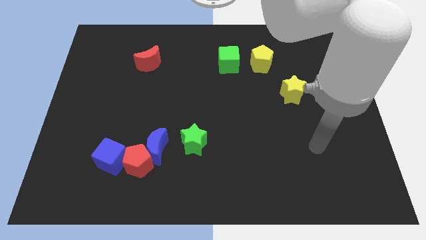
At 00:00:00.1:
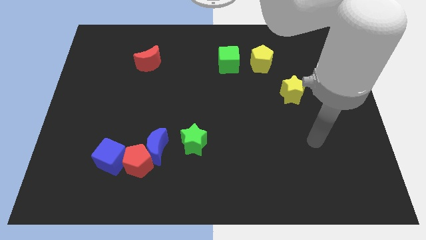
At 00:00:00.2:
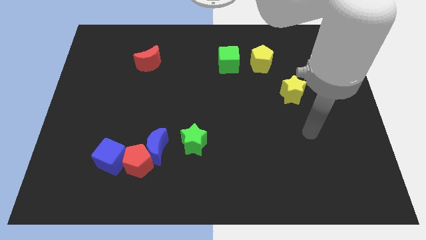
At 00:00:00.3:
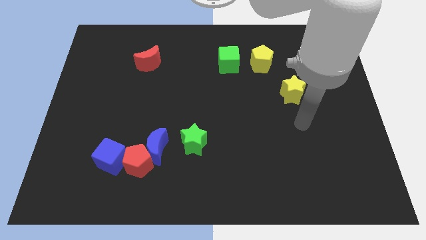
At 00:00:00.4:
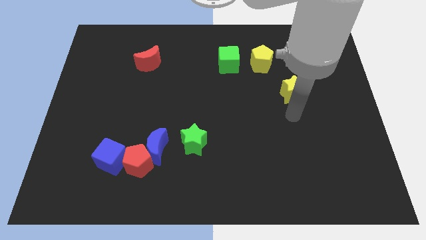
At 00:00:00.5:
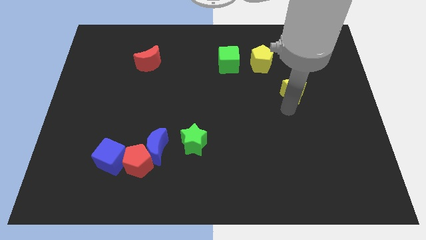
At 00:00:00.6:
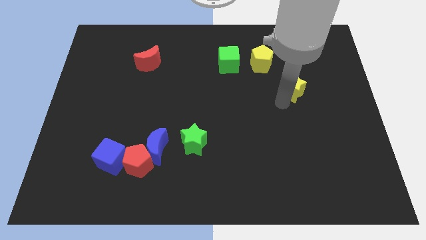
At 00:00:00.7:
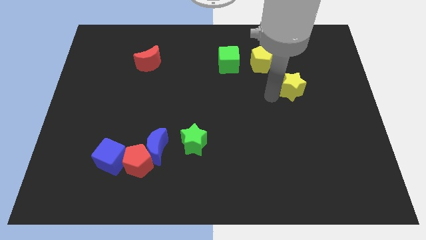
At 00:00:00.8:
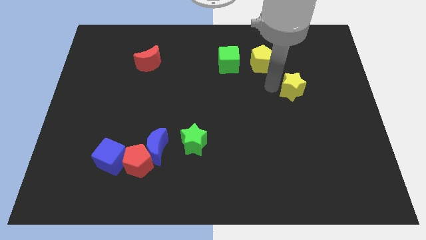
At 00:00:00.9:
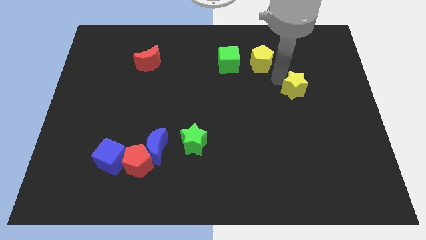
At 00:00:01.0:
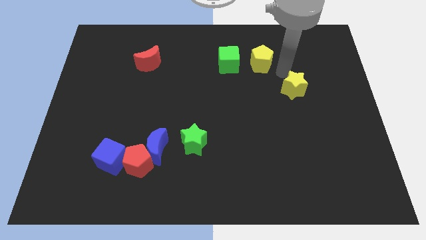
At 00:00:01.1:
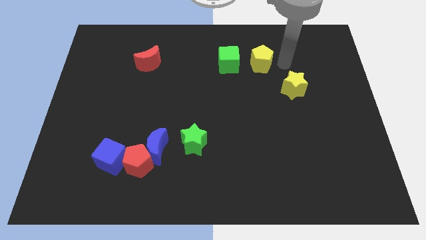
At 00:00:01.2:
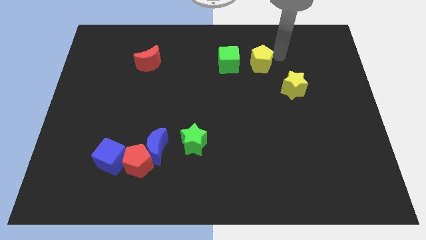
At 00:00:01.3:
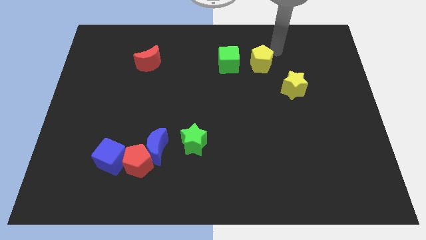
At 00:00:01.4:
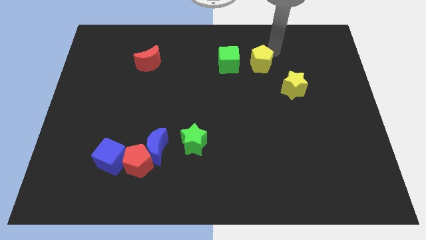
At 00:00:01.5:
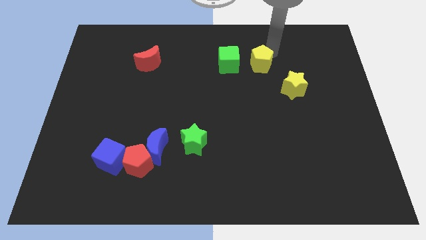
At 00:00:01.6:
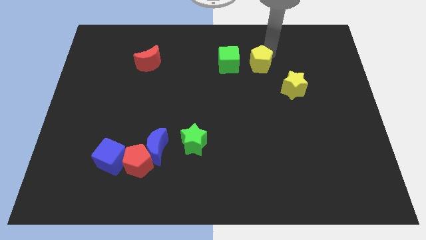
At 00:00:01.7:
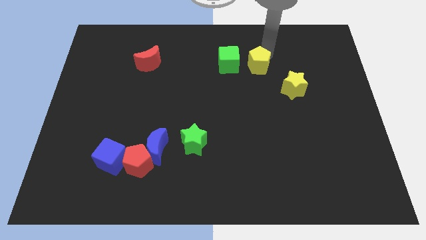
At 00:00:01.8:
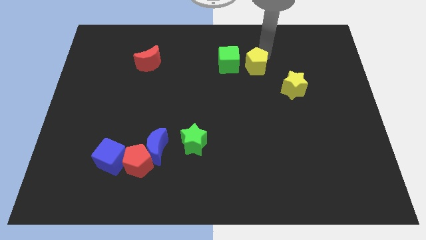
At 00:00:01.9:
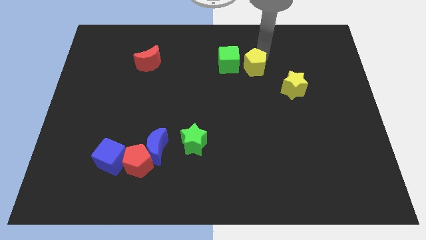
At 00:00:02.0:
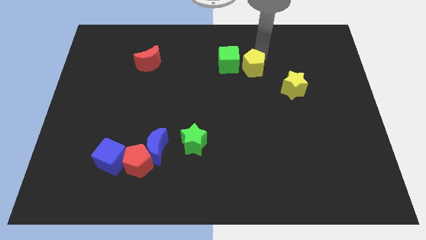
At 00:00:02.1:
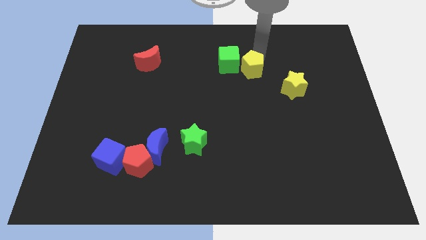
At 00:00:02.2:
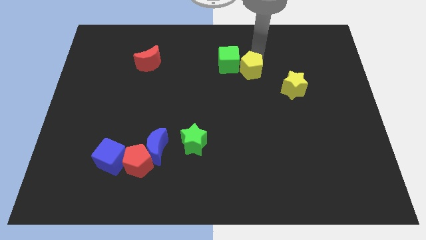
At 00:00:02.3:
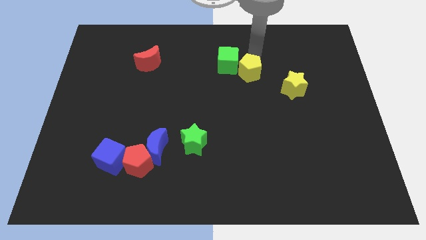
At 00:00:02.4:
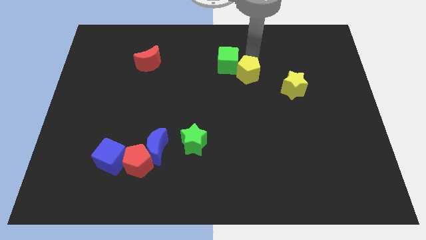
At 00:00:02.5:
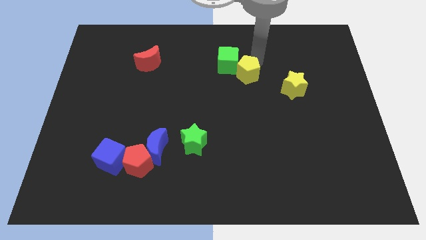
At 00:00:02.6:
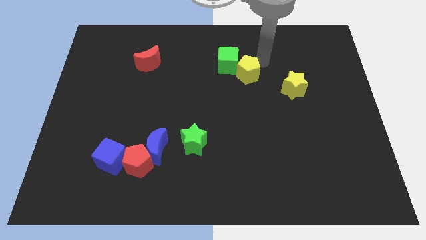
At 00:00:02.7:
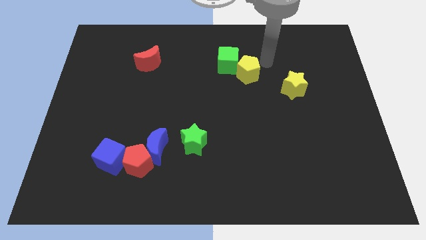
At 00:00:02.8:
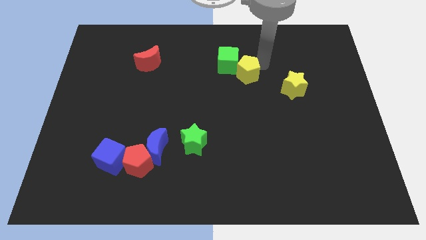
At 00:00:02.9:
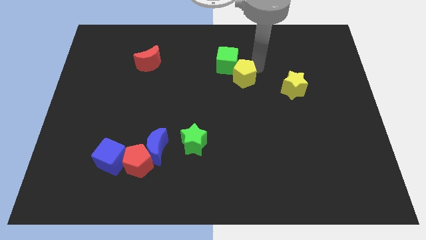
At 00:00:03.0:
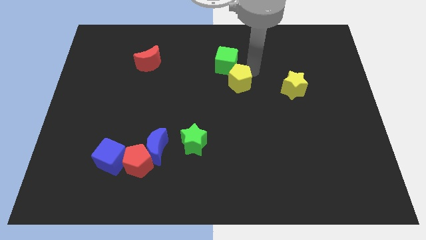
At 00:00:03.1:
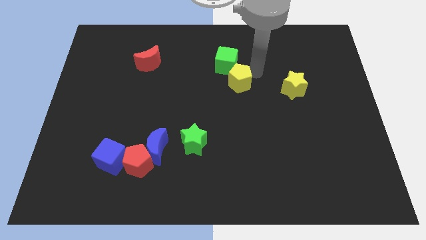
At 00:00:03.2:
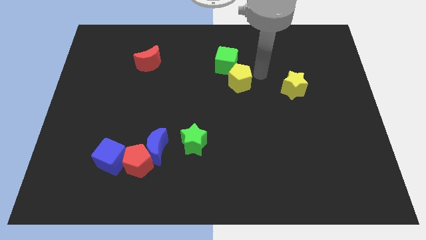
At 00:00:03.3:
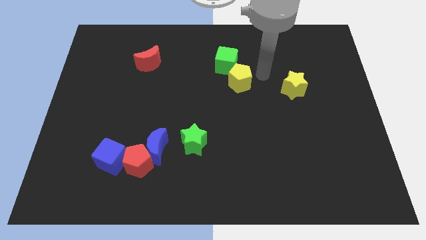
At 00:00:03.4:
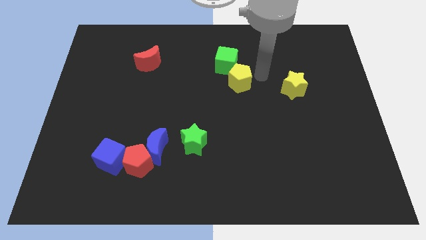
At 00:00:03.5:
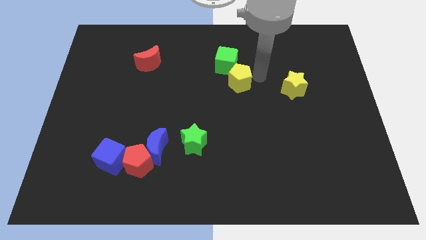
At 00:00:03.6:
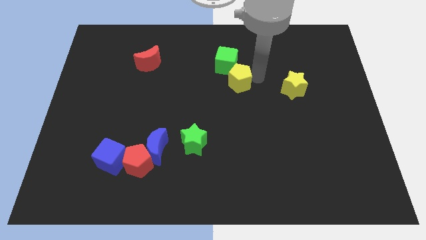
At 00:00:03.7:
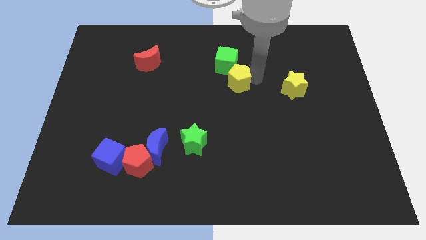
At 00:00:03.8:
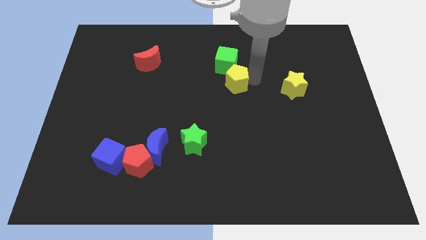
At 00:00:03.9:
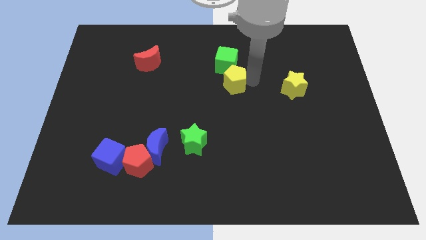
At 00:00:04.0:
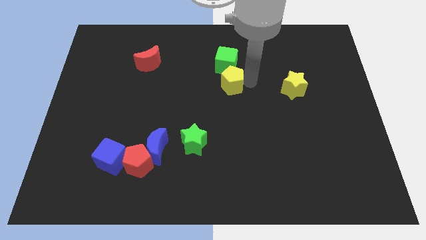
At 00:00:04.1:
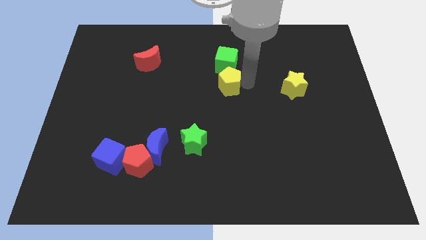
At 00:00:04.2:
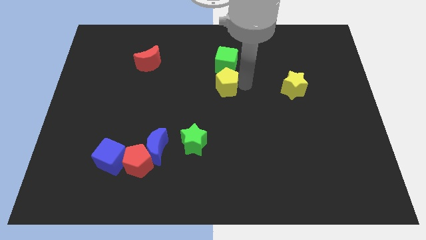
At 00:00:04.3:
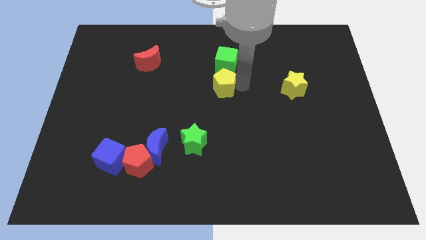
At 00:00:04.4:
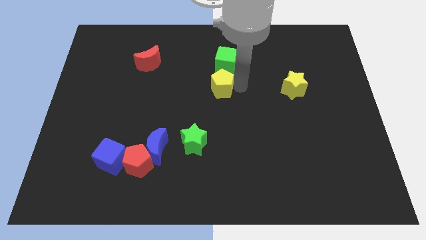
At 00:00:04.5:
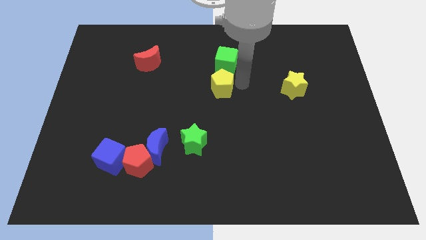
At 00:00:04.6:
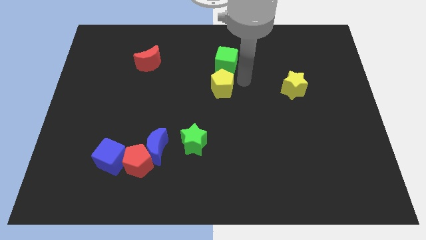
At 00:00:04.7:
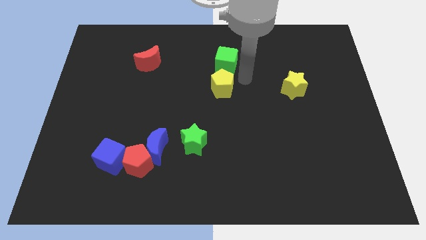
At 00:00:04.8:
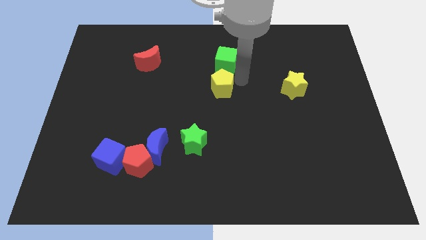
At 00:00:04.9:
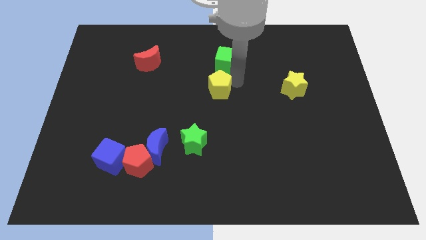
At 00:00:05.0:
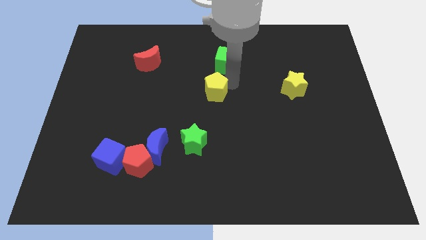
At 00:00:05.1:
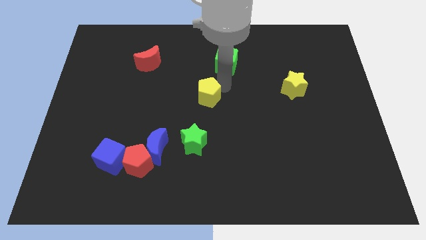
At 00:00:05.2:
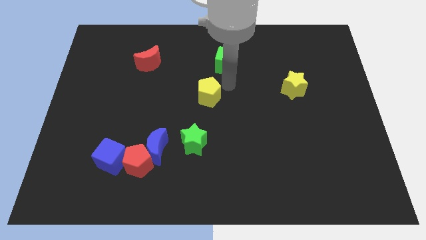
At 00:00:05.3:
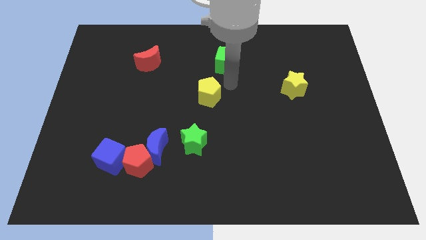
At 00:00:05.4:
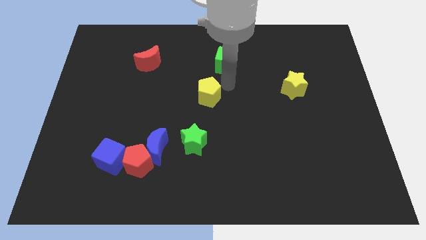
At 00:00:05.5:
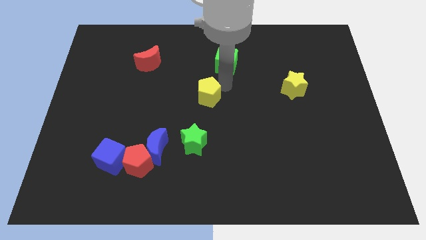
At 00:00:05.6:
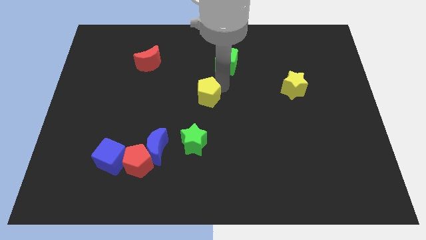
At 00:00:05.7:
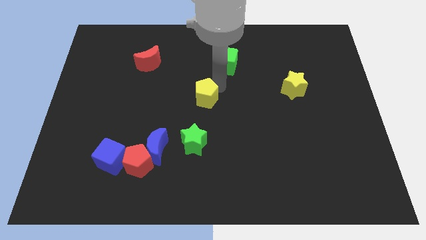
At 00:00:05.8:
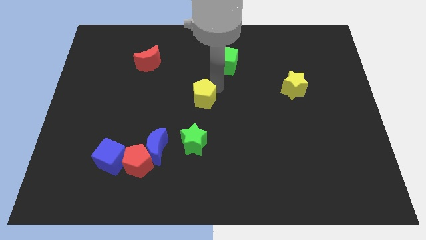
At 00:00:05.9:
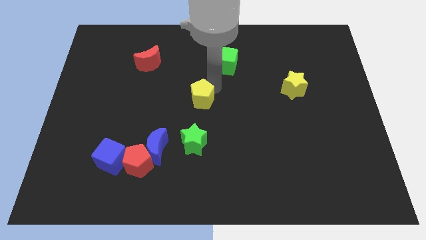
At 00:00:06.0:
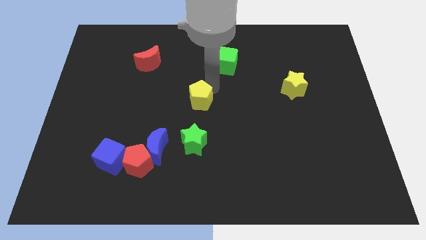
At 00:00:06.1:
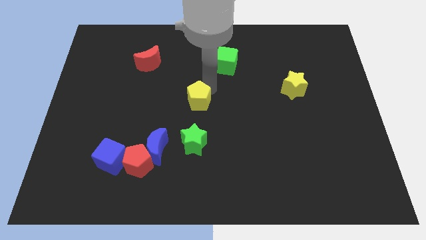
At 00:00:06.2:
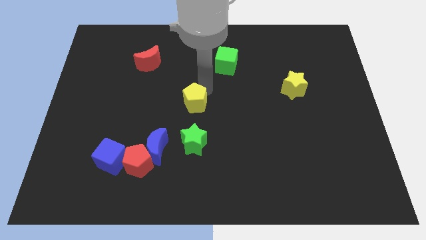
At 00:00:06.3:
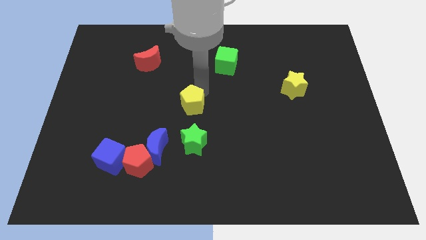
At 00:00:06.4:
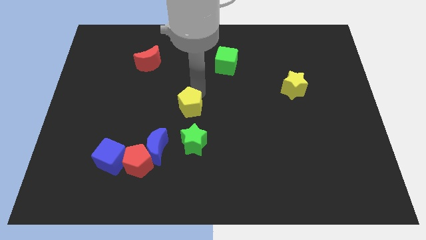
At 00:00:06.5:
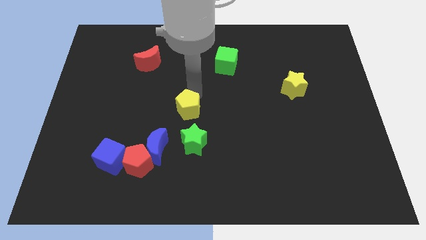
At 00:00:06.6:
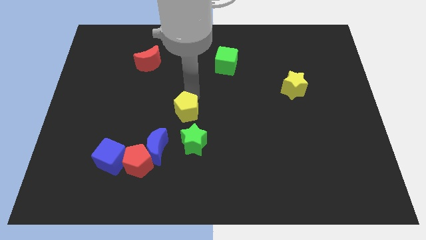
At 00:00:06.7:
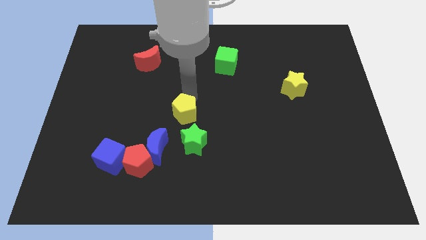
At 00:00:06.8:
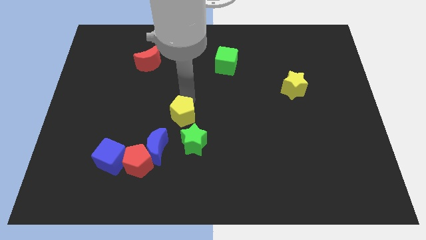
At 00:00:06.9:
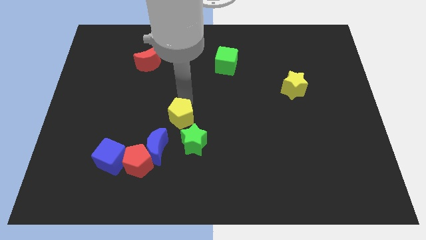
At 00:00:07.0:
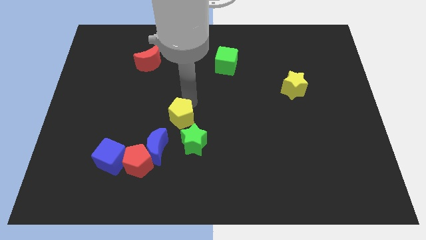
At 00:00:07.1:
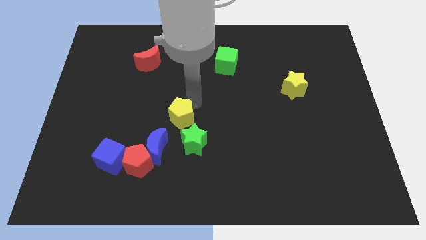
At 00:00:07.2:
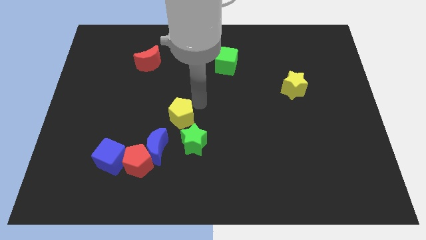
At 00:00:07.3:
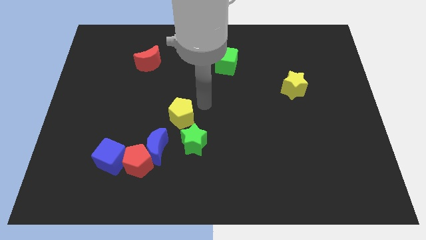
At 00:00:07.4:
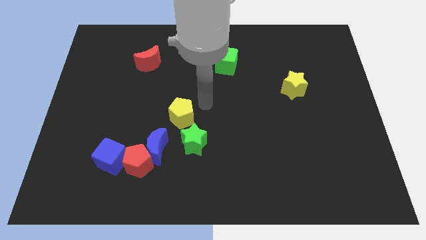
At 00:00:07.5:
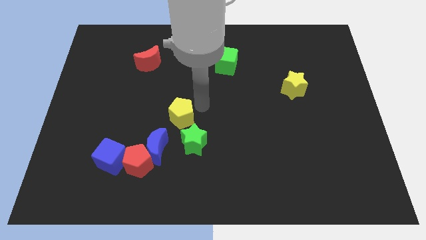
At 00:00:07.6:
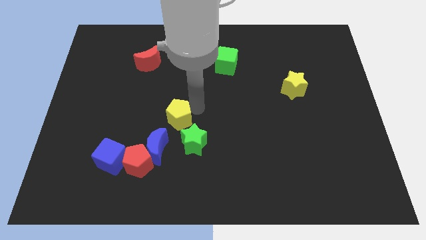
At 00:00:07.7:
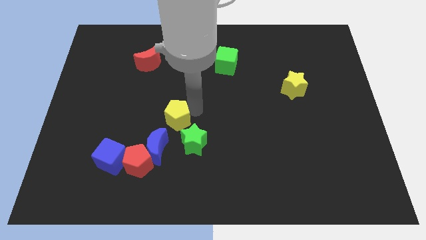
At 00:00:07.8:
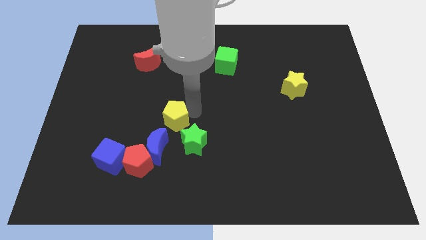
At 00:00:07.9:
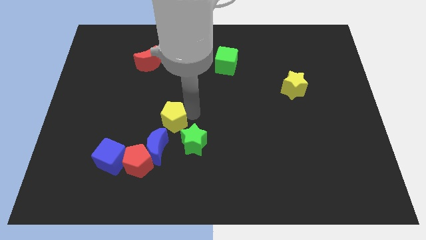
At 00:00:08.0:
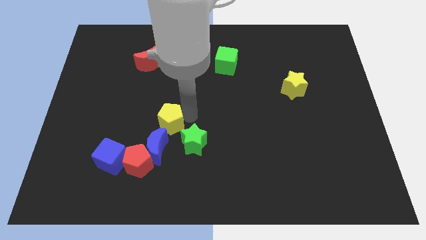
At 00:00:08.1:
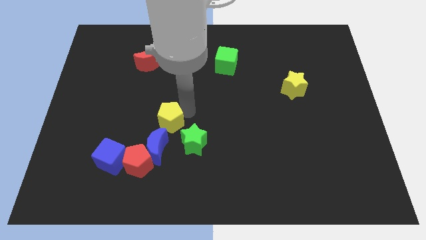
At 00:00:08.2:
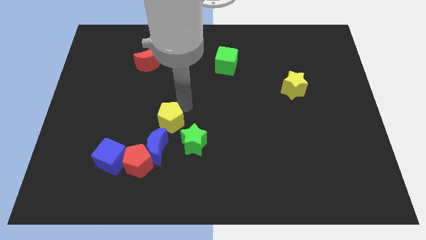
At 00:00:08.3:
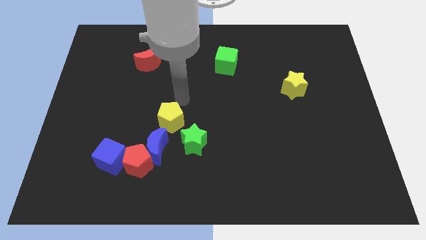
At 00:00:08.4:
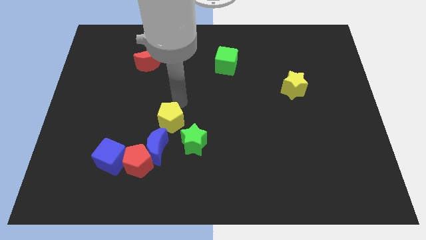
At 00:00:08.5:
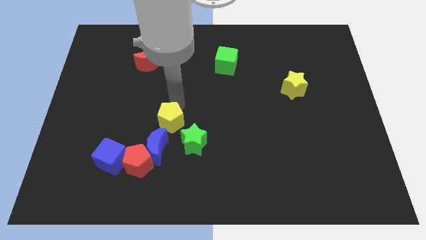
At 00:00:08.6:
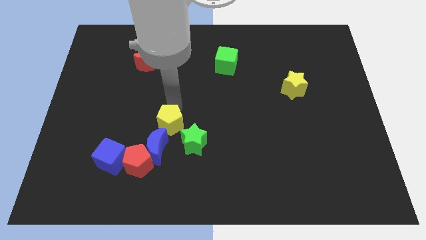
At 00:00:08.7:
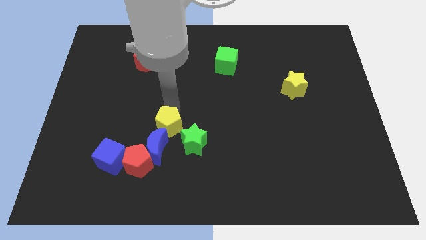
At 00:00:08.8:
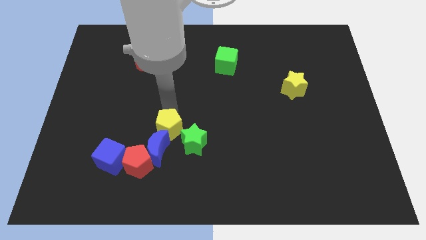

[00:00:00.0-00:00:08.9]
push the yellow pentagon towards the blue moon
